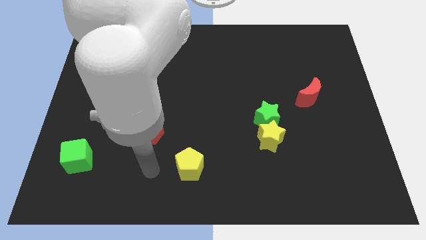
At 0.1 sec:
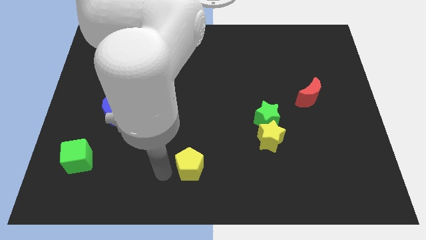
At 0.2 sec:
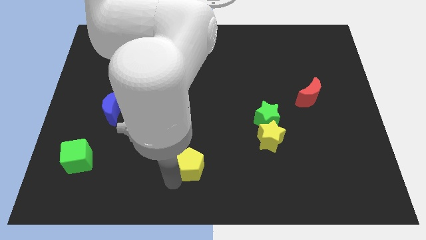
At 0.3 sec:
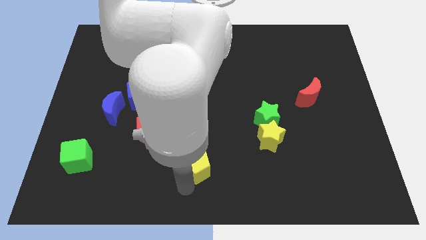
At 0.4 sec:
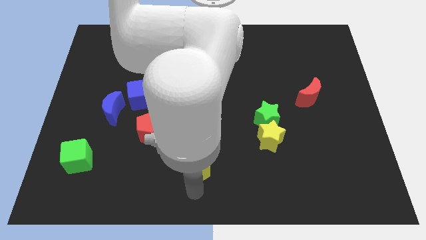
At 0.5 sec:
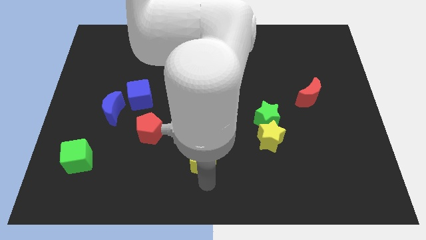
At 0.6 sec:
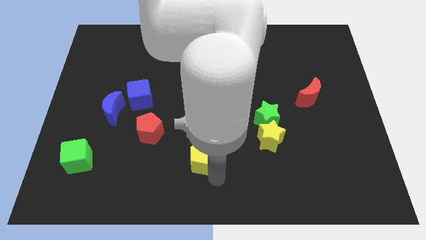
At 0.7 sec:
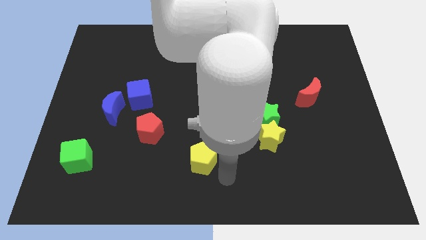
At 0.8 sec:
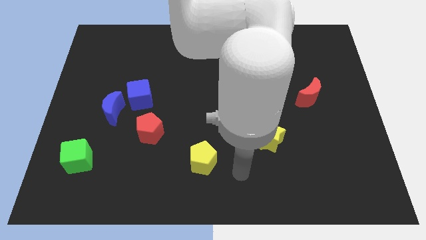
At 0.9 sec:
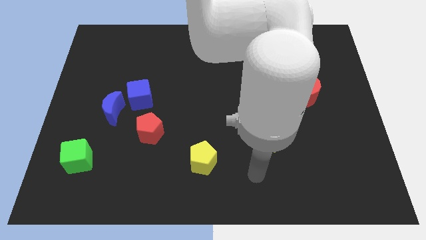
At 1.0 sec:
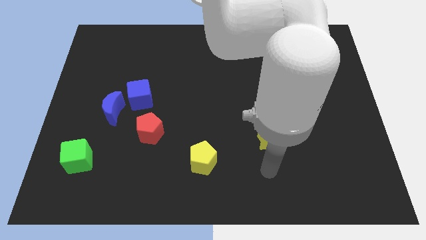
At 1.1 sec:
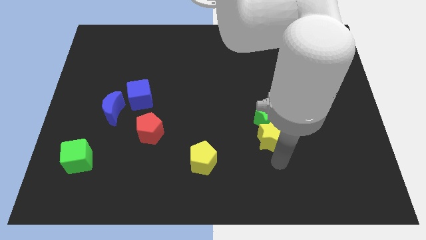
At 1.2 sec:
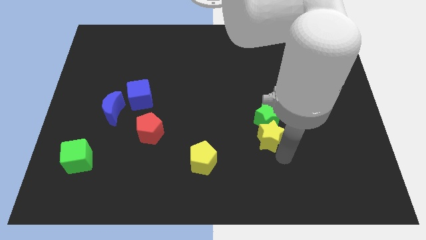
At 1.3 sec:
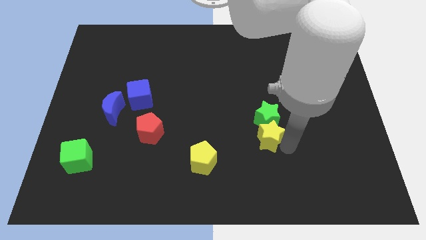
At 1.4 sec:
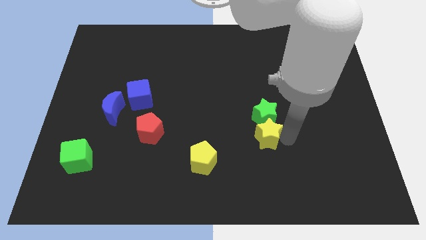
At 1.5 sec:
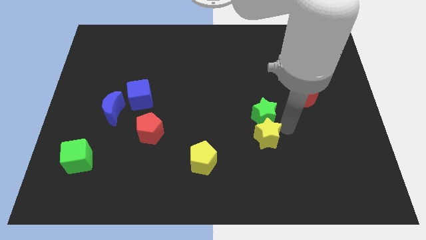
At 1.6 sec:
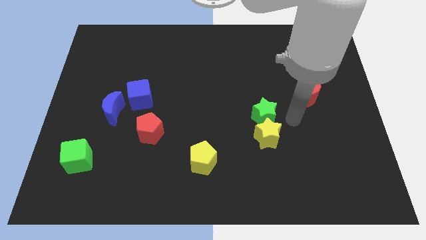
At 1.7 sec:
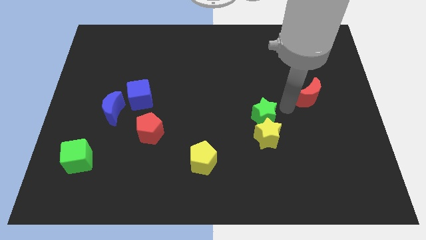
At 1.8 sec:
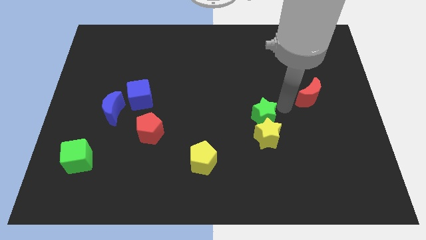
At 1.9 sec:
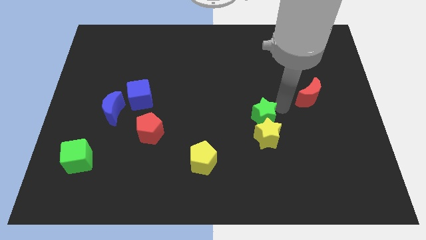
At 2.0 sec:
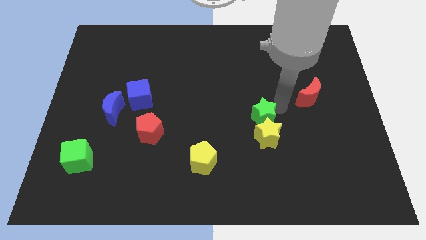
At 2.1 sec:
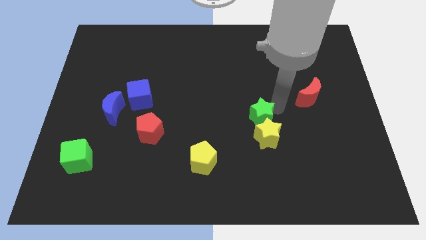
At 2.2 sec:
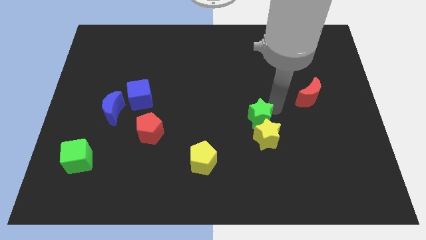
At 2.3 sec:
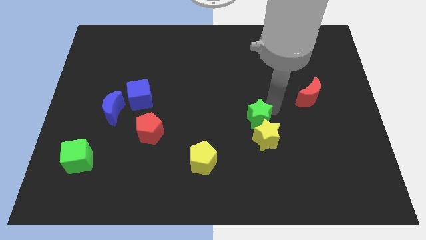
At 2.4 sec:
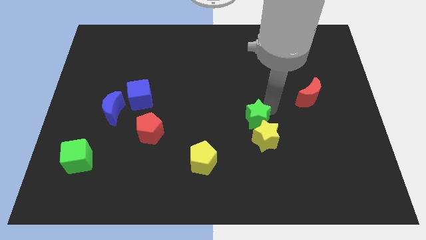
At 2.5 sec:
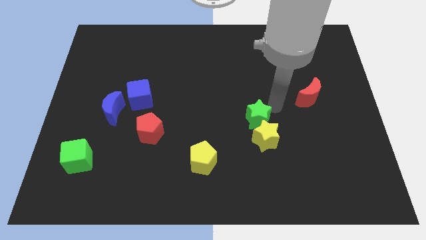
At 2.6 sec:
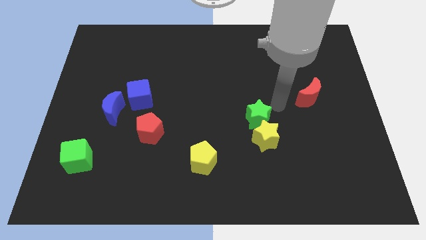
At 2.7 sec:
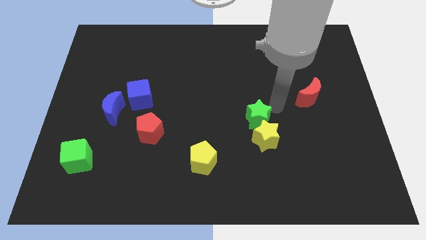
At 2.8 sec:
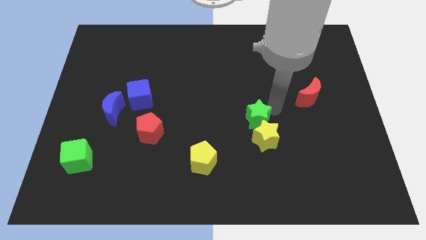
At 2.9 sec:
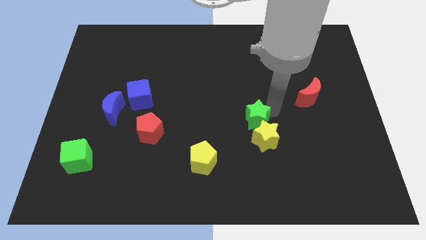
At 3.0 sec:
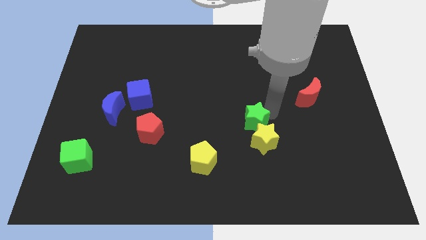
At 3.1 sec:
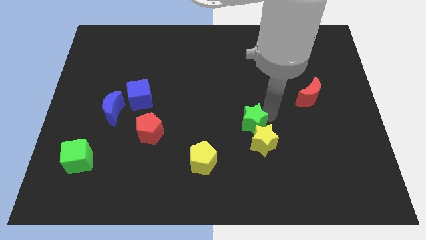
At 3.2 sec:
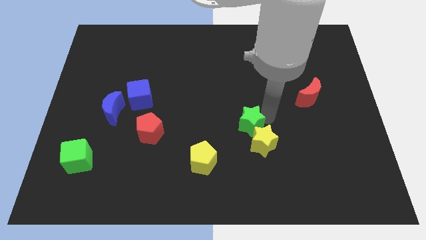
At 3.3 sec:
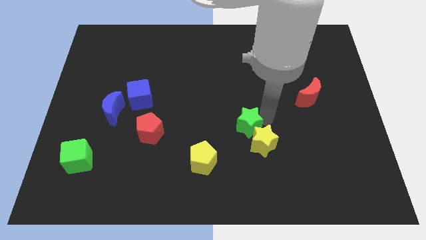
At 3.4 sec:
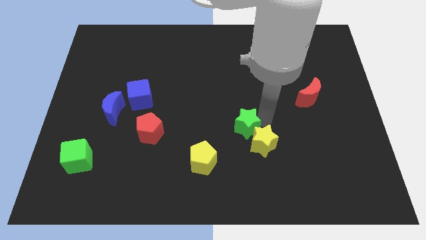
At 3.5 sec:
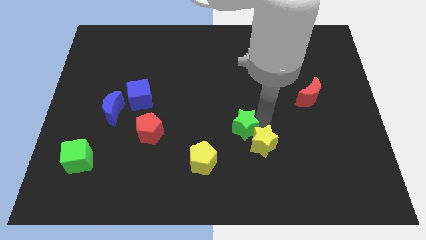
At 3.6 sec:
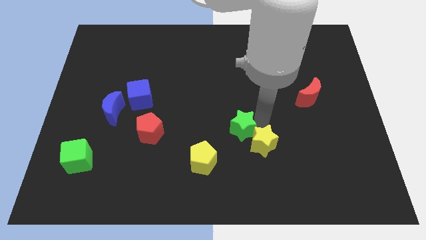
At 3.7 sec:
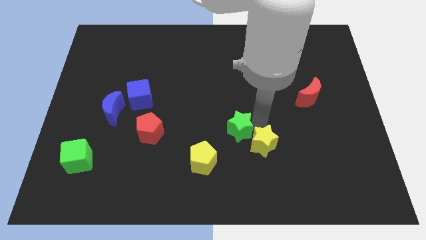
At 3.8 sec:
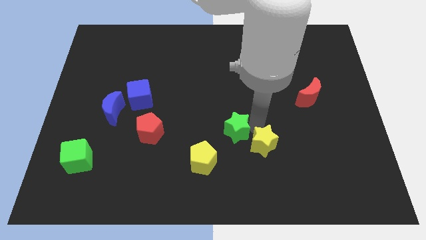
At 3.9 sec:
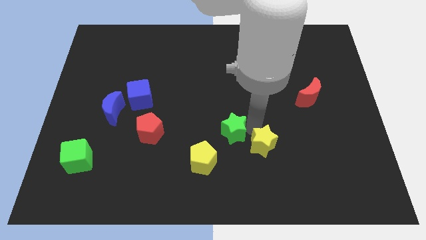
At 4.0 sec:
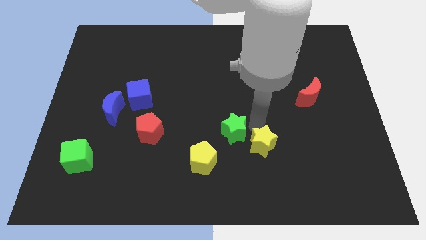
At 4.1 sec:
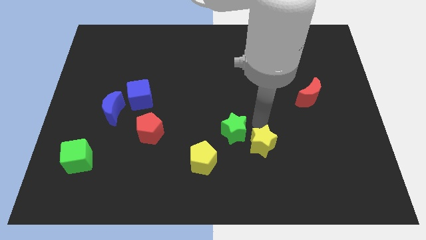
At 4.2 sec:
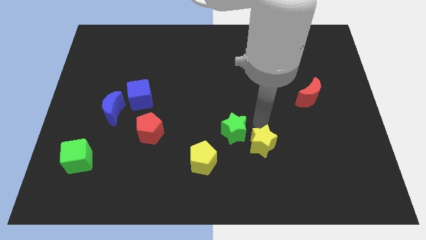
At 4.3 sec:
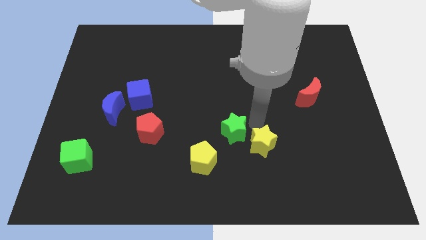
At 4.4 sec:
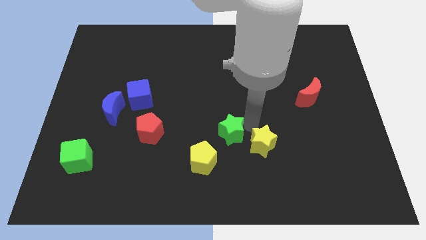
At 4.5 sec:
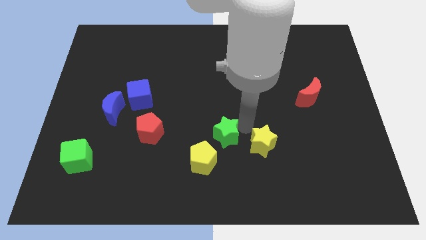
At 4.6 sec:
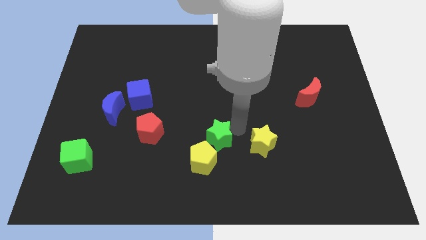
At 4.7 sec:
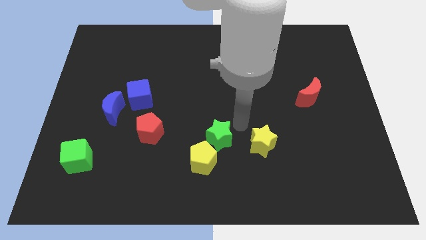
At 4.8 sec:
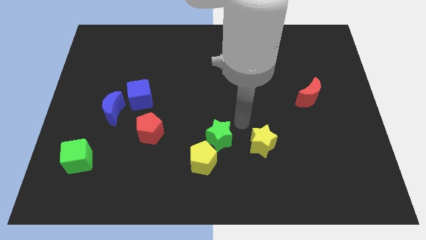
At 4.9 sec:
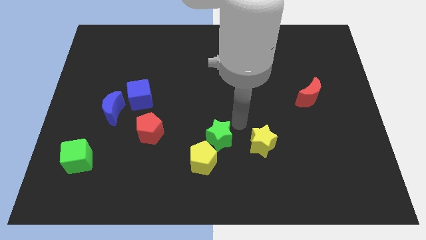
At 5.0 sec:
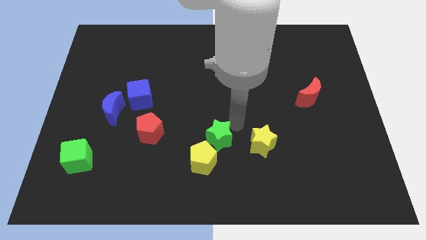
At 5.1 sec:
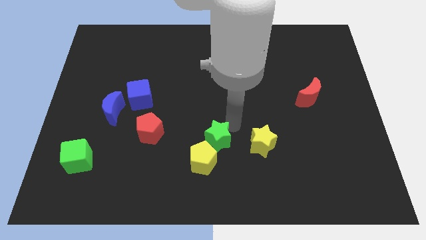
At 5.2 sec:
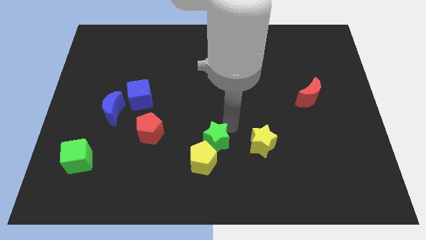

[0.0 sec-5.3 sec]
slide the green star to the yellow pentagon

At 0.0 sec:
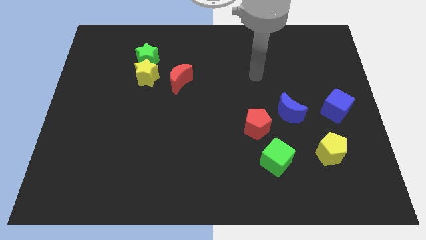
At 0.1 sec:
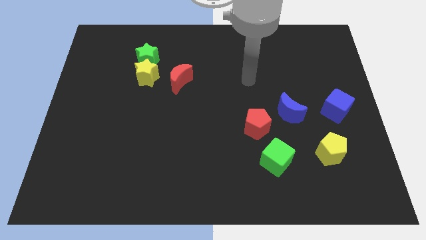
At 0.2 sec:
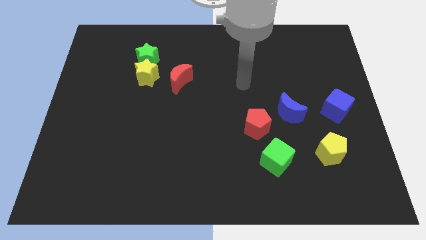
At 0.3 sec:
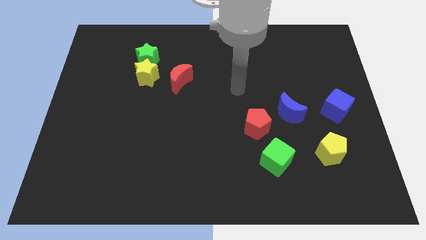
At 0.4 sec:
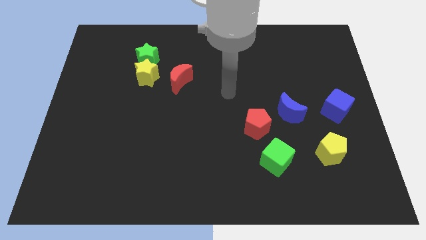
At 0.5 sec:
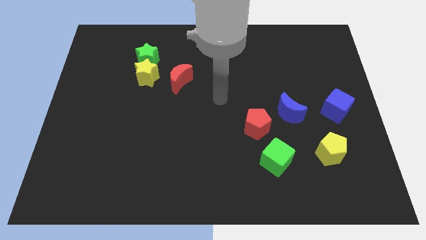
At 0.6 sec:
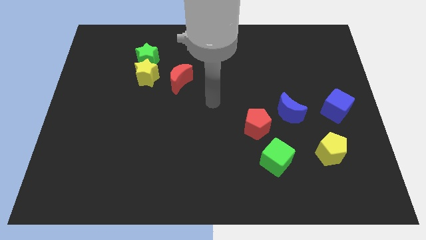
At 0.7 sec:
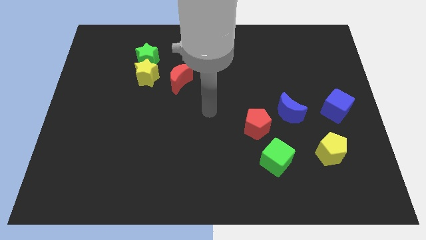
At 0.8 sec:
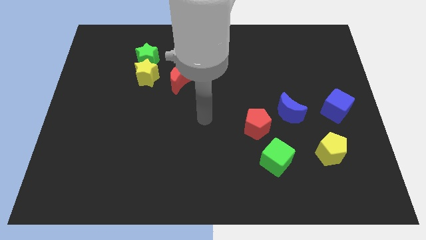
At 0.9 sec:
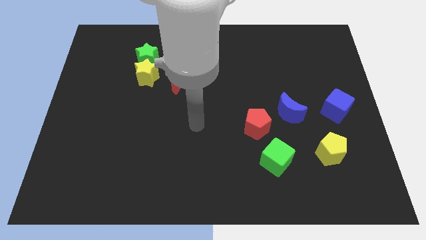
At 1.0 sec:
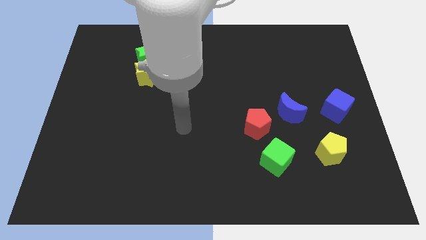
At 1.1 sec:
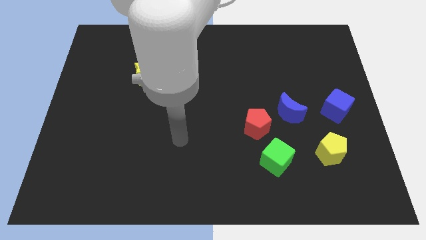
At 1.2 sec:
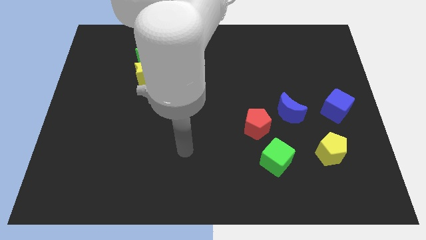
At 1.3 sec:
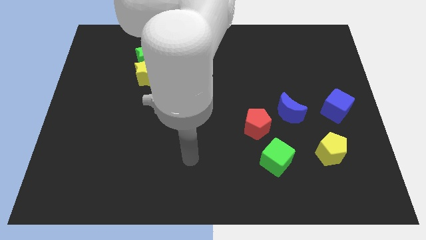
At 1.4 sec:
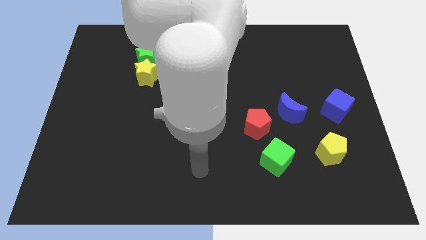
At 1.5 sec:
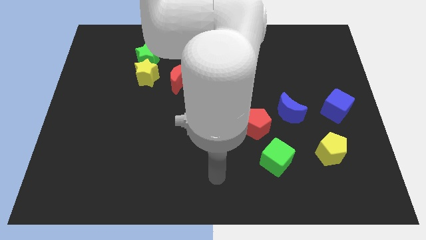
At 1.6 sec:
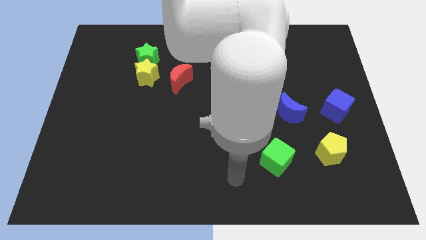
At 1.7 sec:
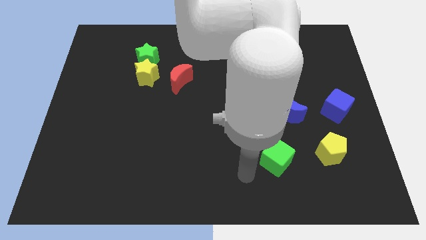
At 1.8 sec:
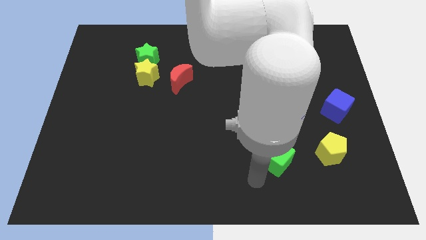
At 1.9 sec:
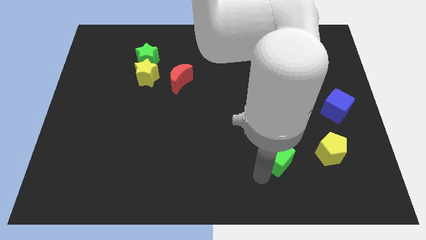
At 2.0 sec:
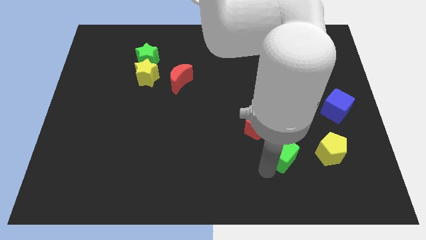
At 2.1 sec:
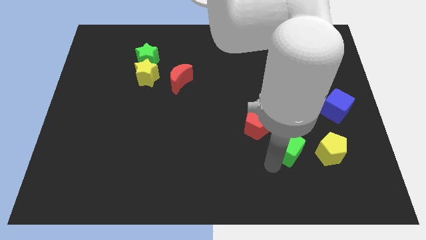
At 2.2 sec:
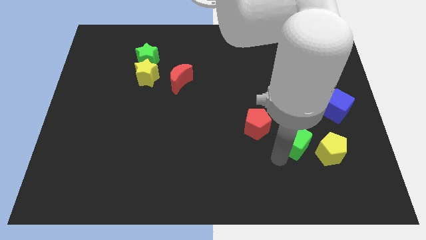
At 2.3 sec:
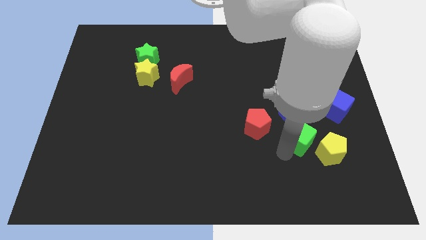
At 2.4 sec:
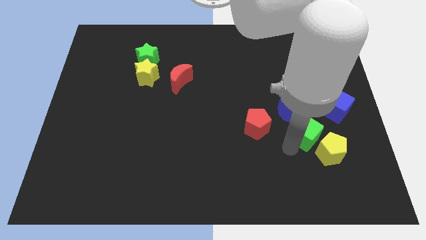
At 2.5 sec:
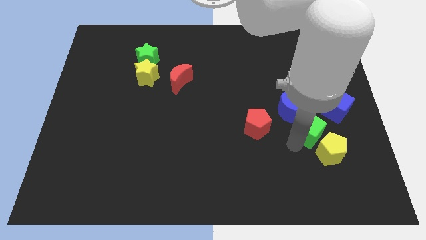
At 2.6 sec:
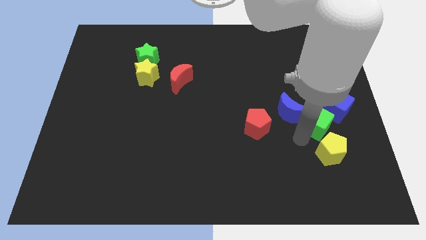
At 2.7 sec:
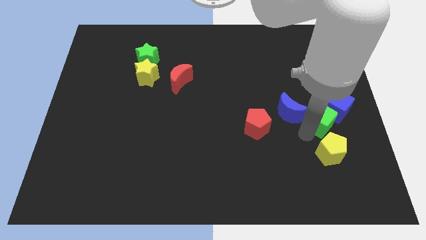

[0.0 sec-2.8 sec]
put the green cube to the blue cube
